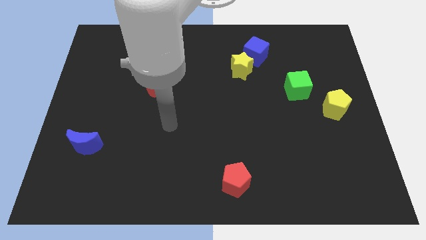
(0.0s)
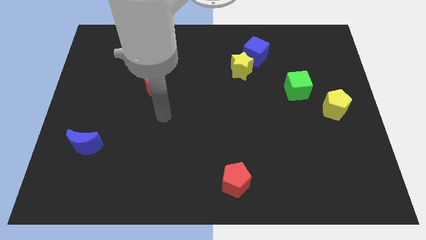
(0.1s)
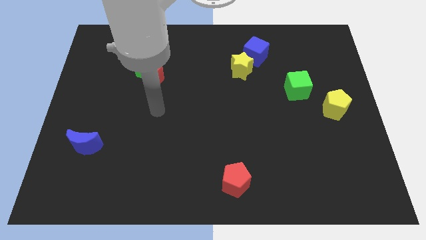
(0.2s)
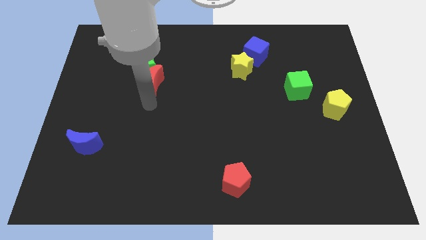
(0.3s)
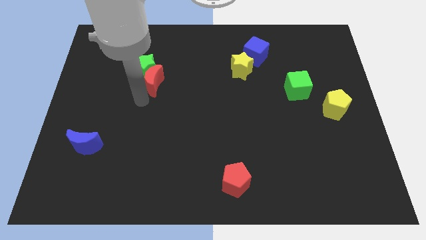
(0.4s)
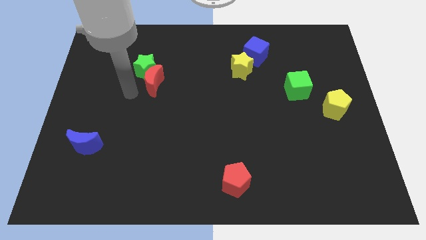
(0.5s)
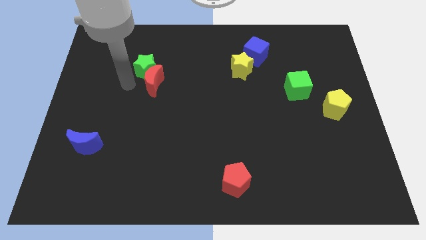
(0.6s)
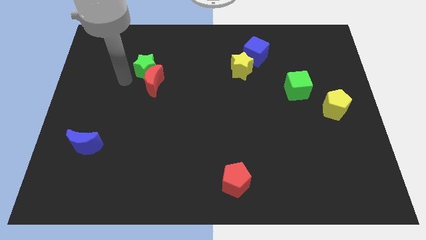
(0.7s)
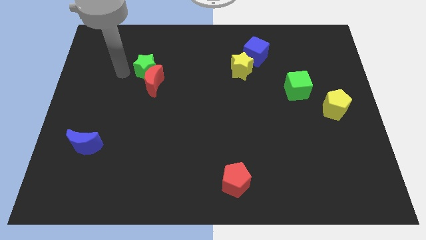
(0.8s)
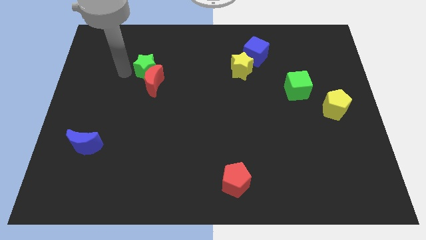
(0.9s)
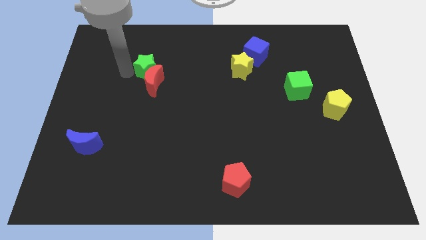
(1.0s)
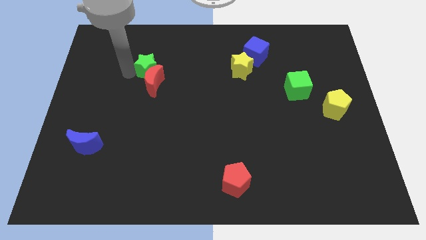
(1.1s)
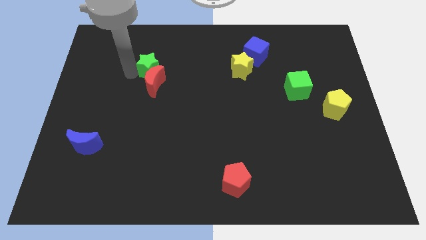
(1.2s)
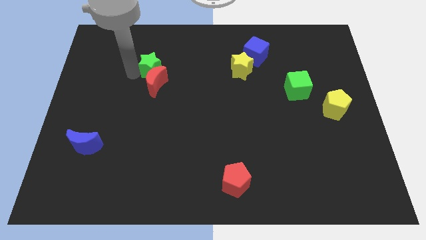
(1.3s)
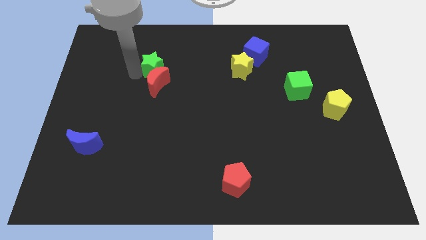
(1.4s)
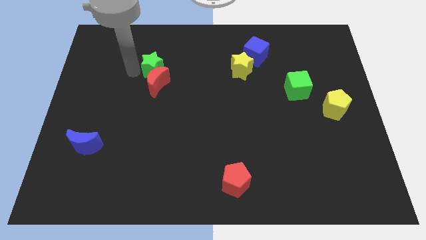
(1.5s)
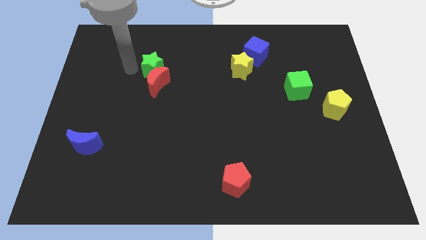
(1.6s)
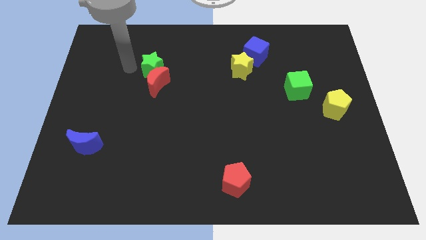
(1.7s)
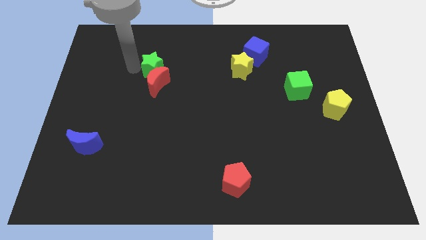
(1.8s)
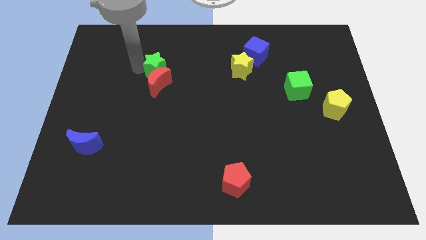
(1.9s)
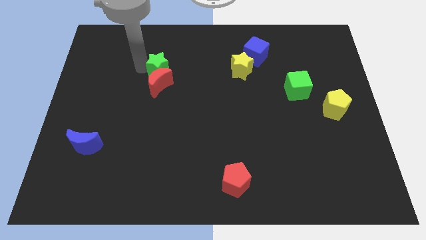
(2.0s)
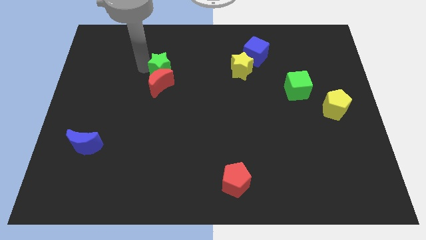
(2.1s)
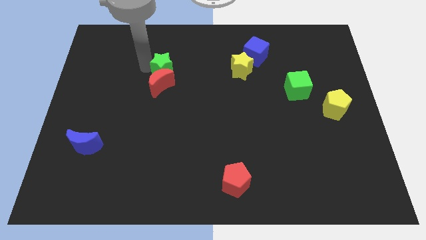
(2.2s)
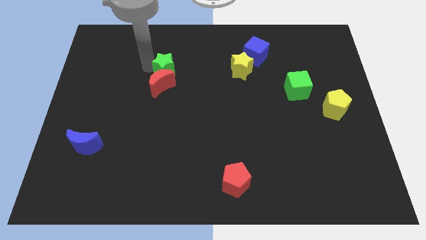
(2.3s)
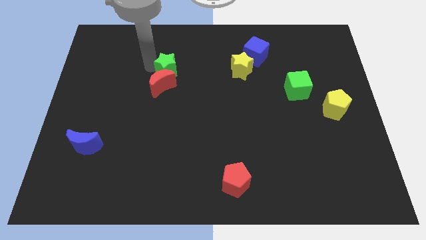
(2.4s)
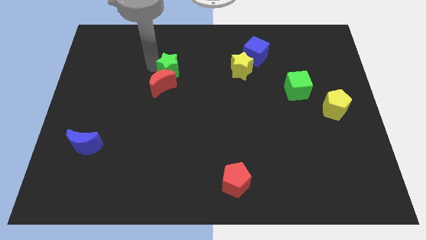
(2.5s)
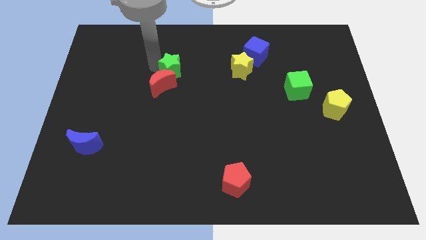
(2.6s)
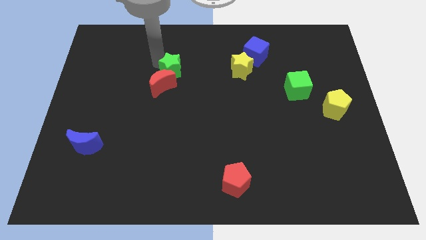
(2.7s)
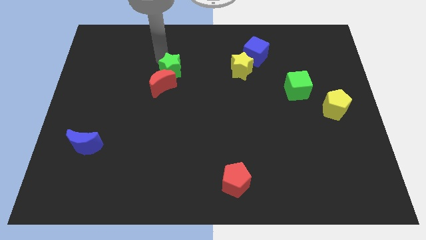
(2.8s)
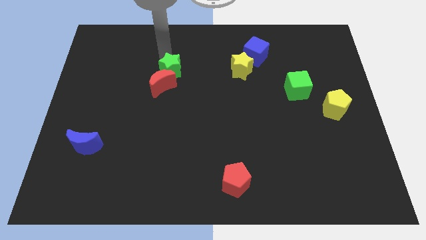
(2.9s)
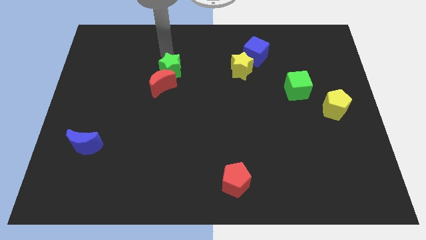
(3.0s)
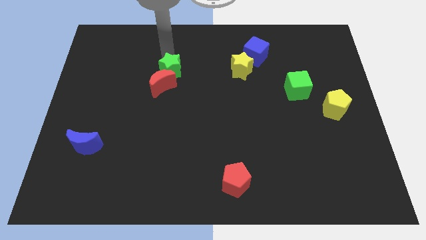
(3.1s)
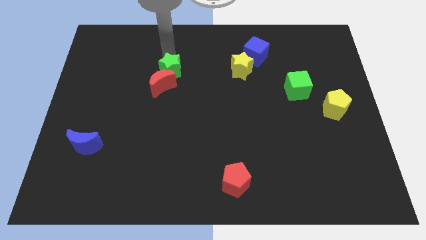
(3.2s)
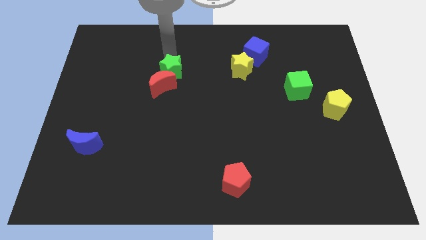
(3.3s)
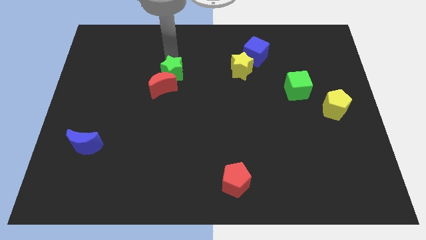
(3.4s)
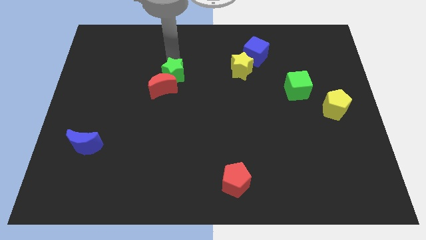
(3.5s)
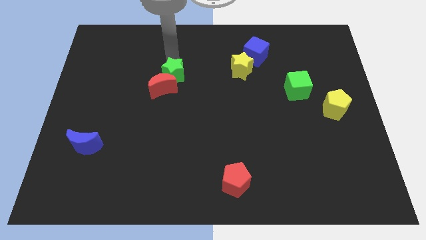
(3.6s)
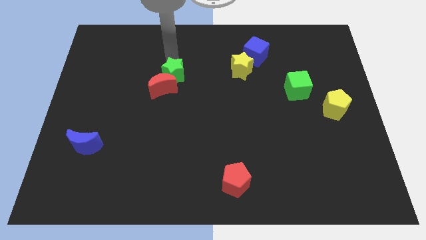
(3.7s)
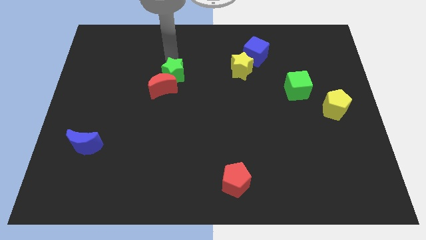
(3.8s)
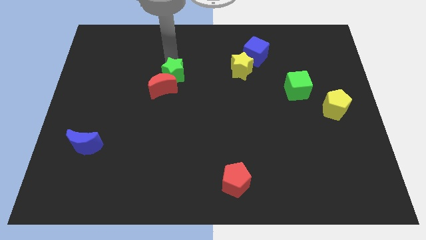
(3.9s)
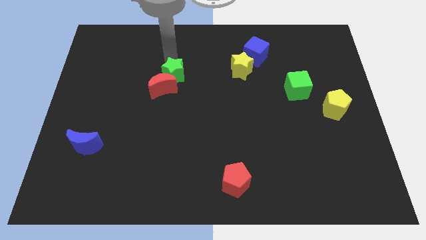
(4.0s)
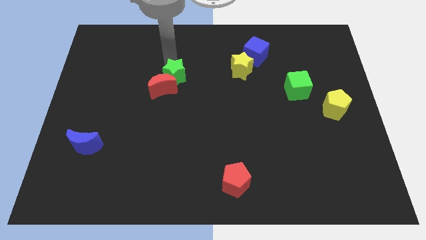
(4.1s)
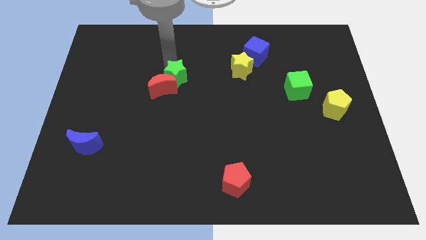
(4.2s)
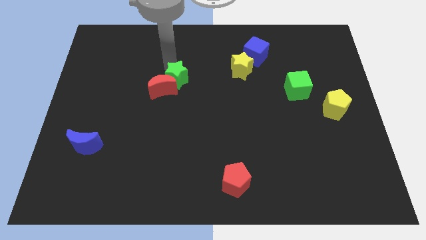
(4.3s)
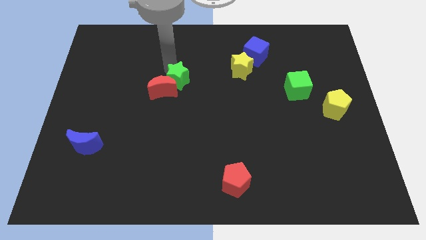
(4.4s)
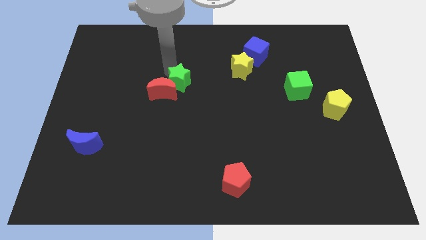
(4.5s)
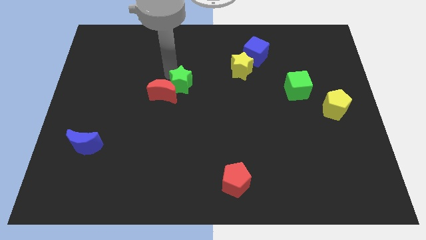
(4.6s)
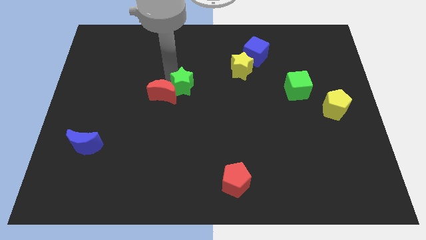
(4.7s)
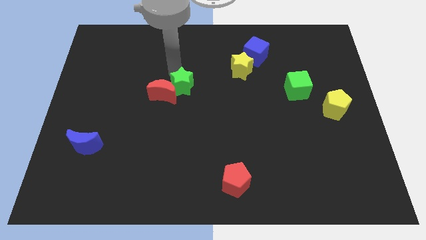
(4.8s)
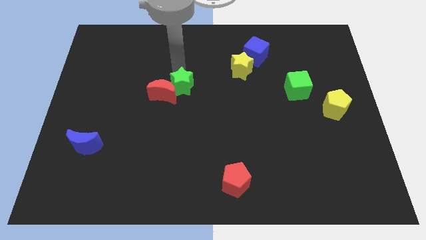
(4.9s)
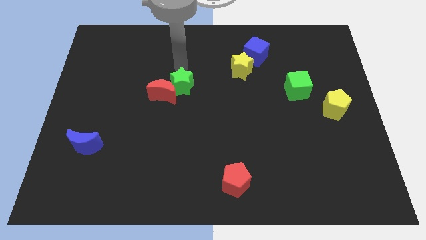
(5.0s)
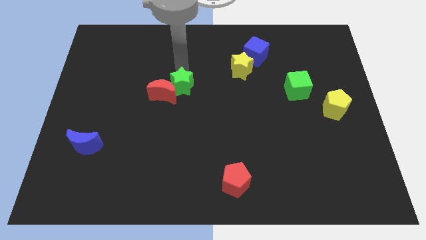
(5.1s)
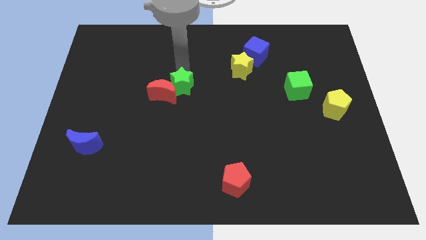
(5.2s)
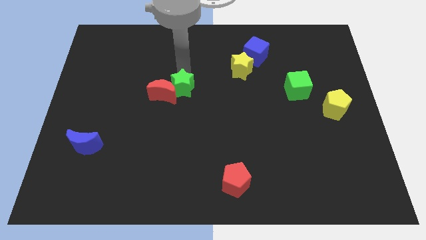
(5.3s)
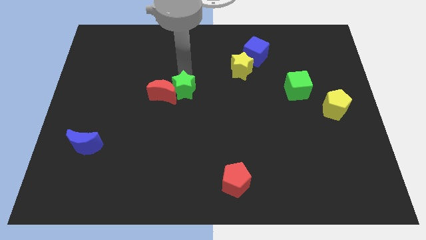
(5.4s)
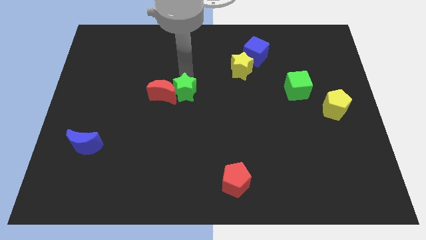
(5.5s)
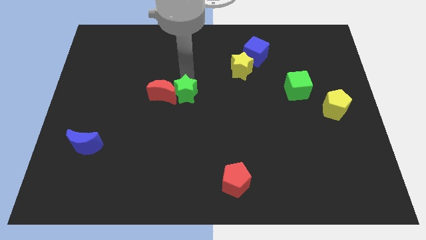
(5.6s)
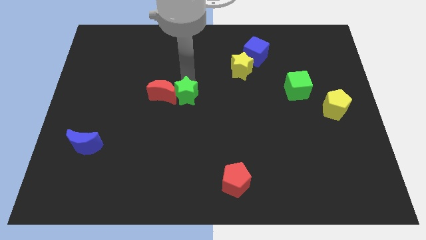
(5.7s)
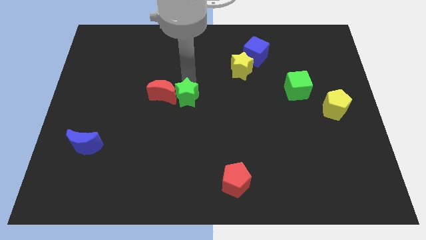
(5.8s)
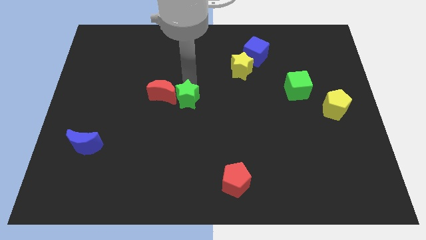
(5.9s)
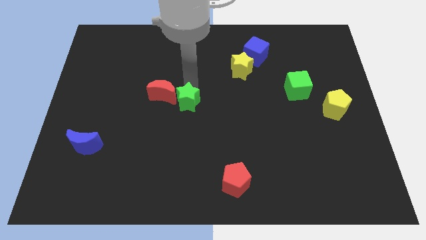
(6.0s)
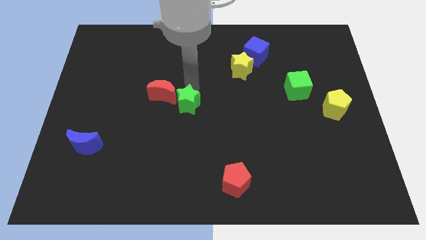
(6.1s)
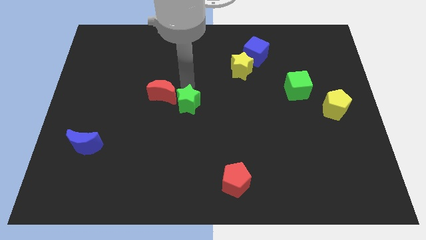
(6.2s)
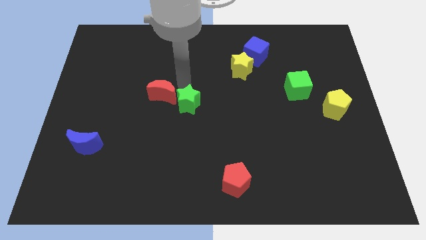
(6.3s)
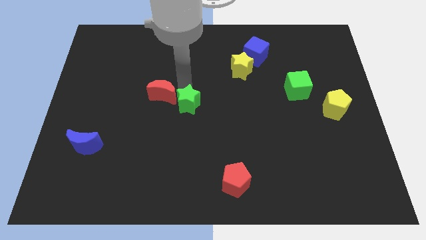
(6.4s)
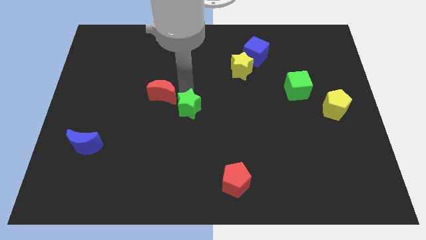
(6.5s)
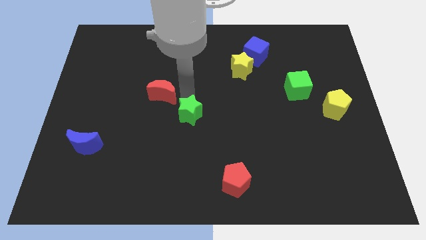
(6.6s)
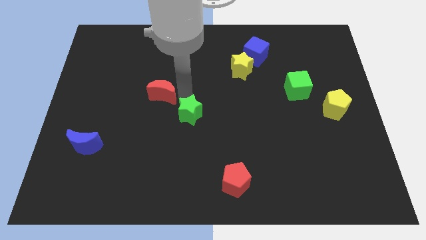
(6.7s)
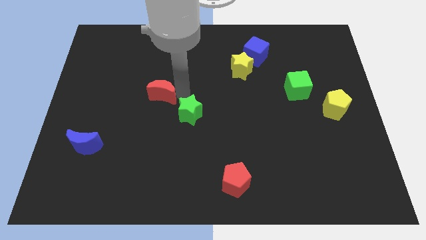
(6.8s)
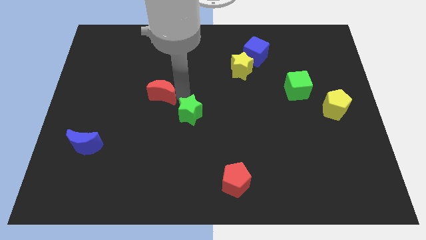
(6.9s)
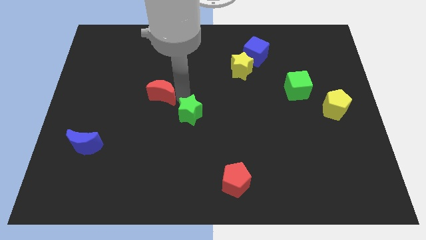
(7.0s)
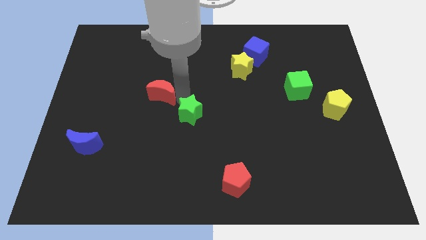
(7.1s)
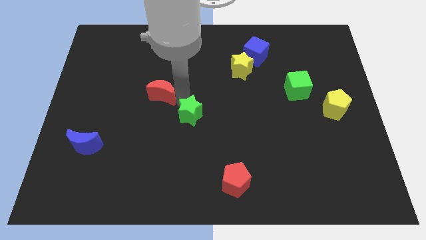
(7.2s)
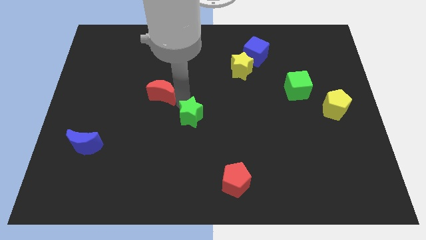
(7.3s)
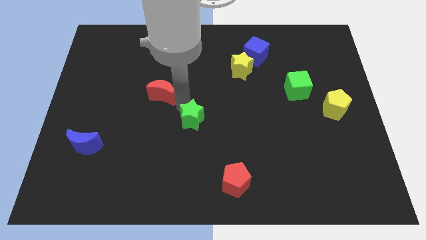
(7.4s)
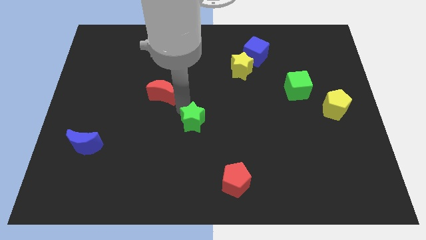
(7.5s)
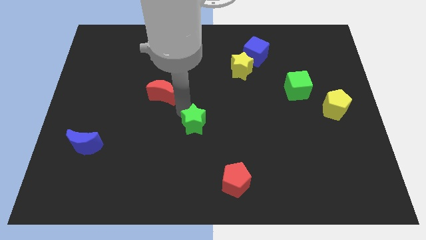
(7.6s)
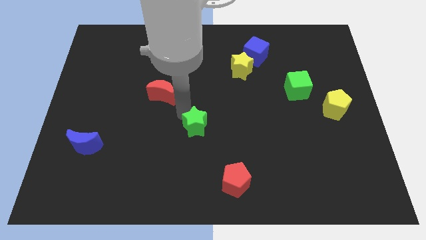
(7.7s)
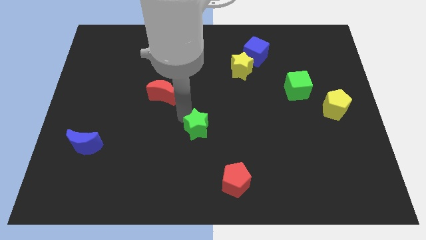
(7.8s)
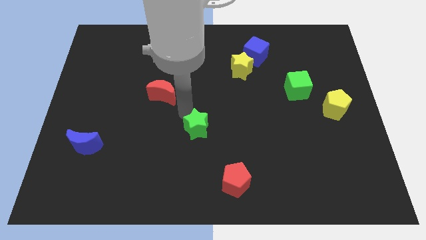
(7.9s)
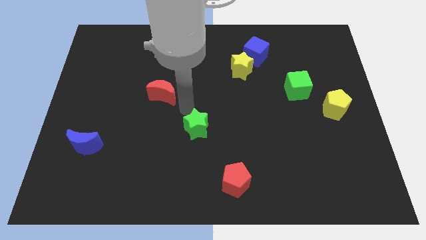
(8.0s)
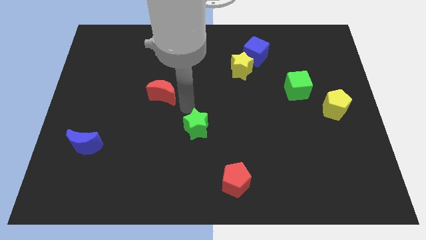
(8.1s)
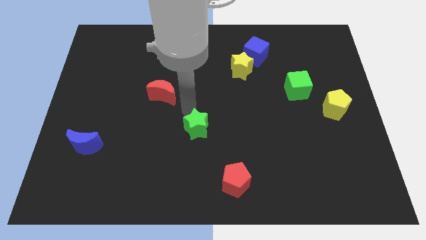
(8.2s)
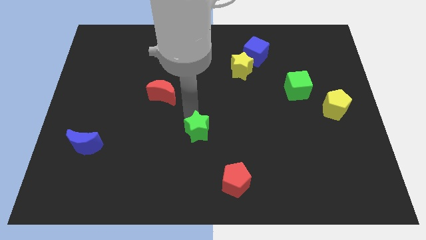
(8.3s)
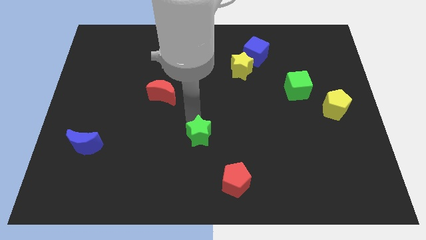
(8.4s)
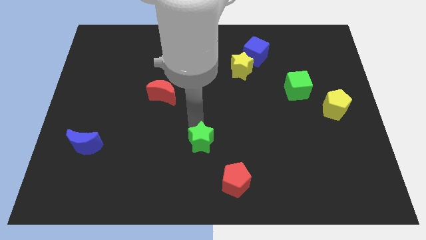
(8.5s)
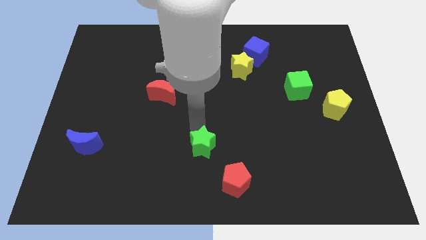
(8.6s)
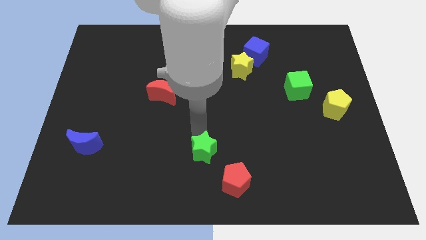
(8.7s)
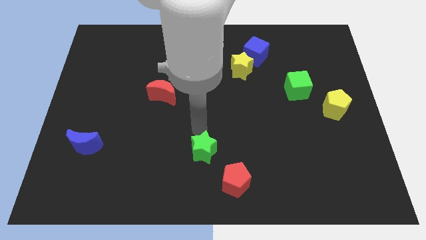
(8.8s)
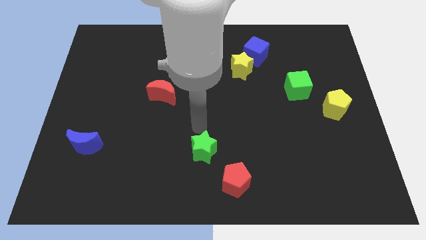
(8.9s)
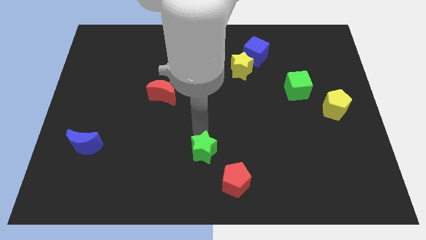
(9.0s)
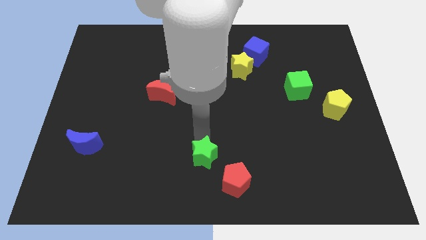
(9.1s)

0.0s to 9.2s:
put the green star to the bottom side
